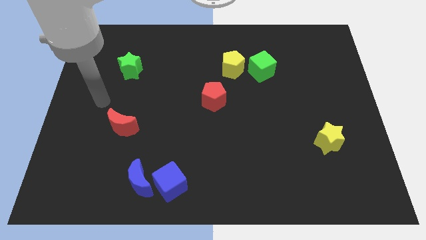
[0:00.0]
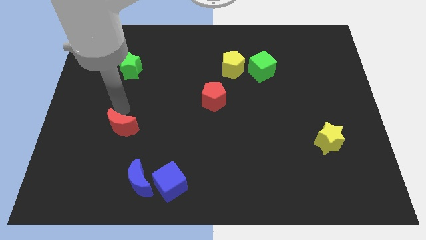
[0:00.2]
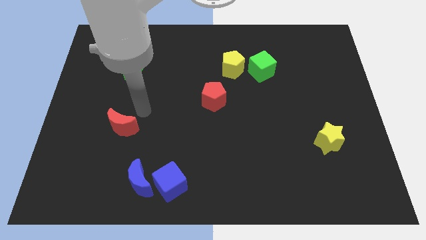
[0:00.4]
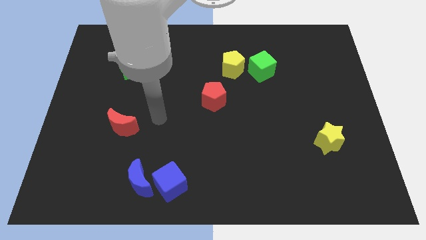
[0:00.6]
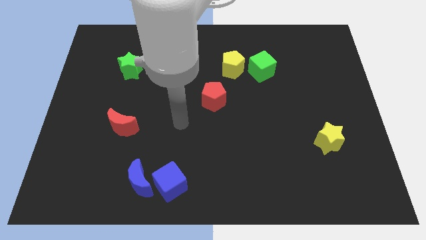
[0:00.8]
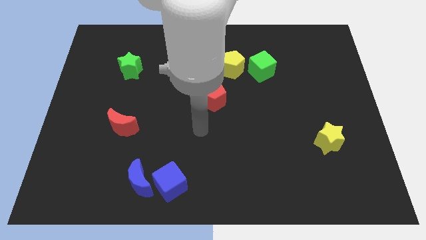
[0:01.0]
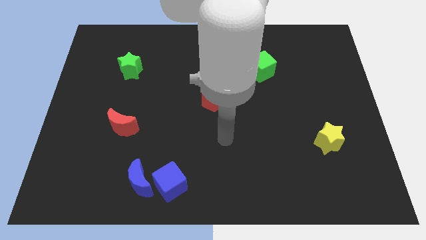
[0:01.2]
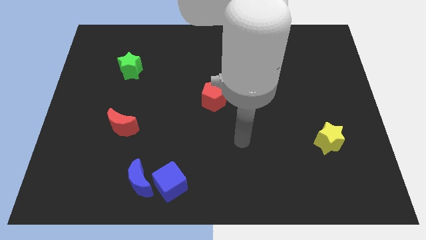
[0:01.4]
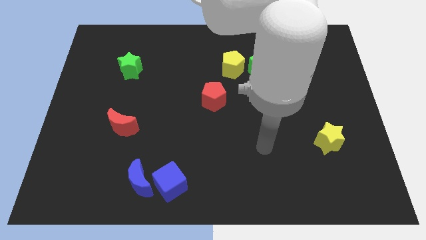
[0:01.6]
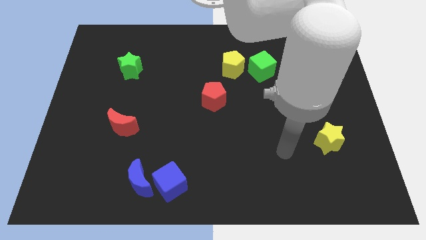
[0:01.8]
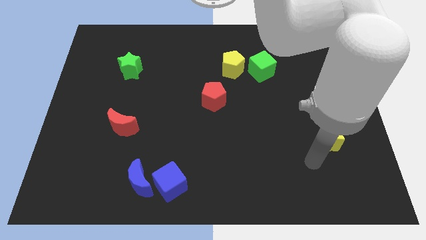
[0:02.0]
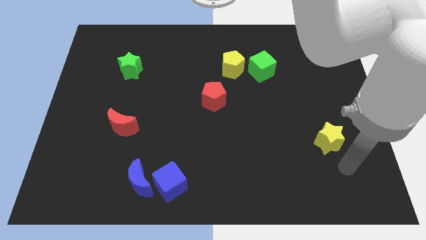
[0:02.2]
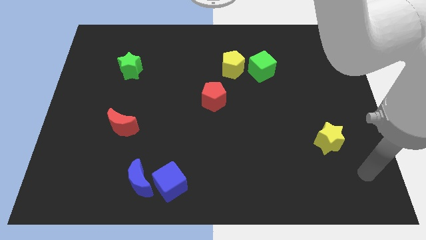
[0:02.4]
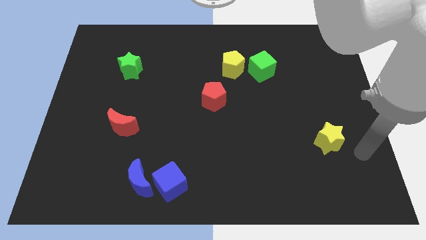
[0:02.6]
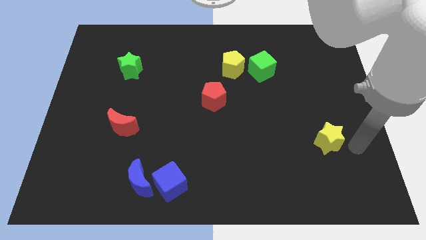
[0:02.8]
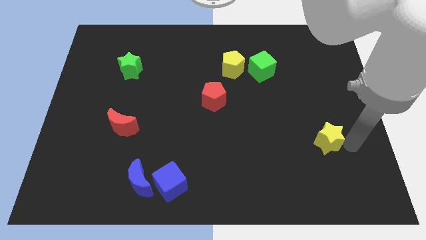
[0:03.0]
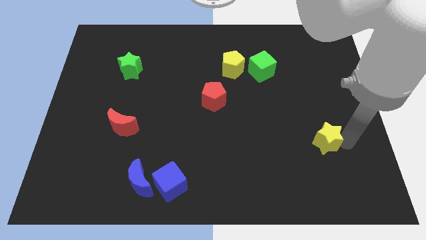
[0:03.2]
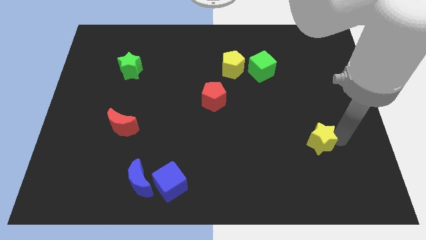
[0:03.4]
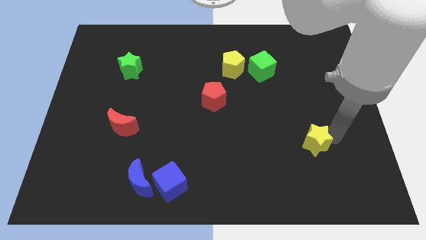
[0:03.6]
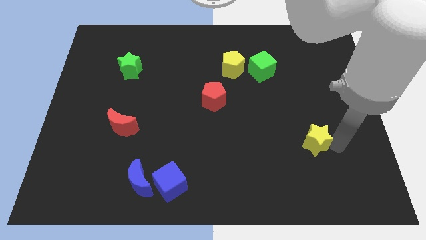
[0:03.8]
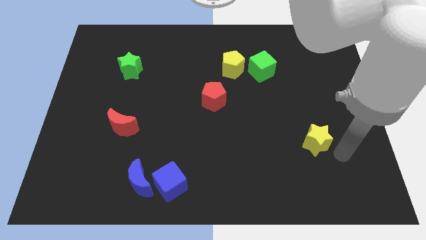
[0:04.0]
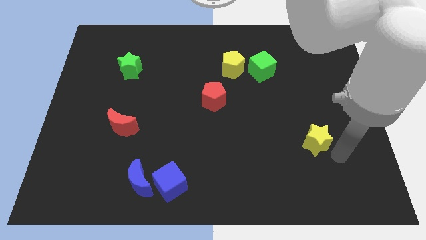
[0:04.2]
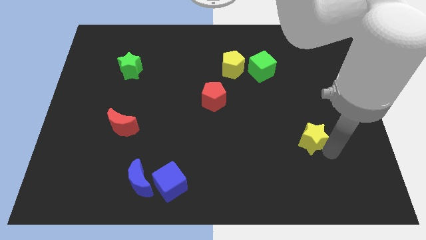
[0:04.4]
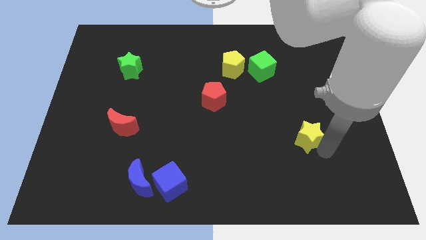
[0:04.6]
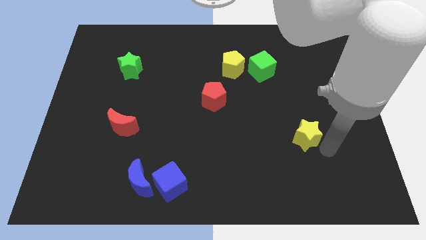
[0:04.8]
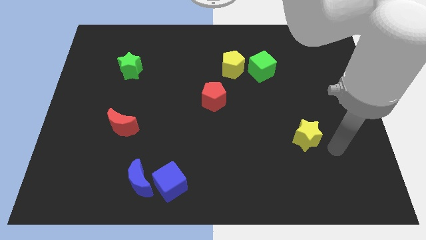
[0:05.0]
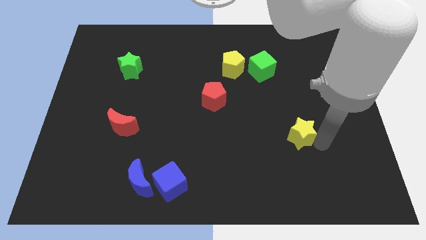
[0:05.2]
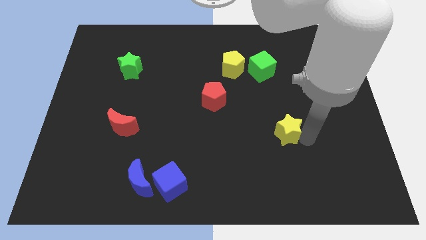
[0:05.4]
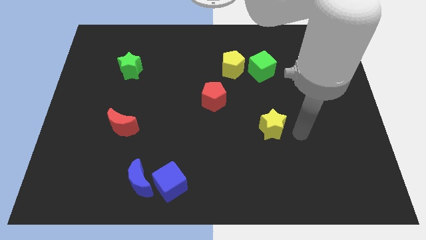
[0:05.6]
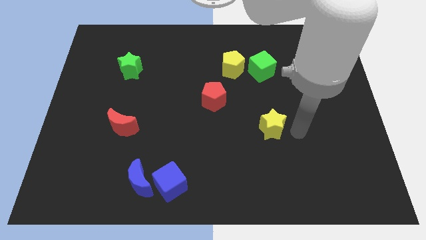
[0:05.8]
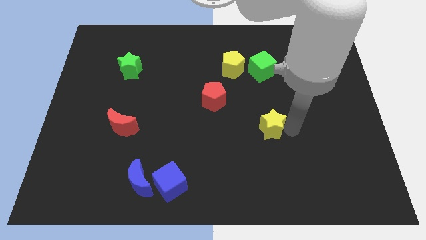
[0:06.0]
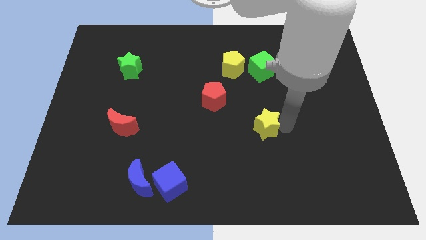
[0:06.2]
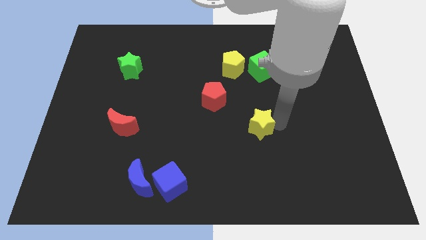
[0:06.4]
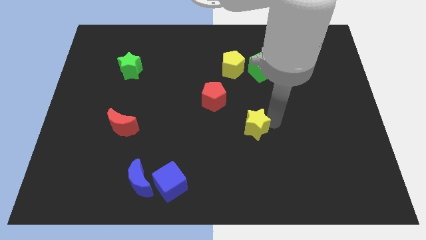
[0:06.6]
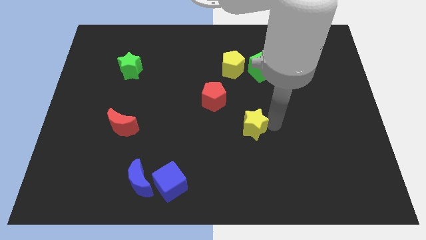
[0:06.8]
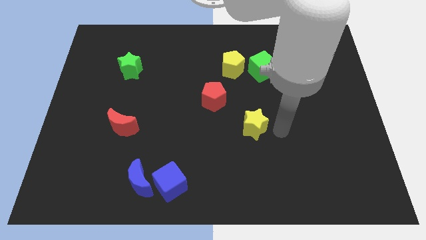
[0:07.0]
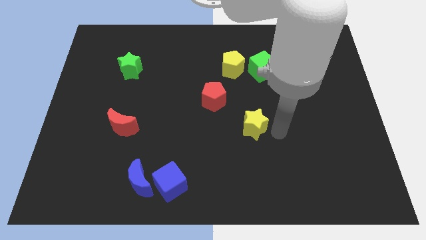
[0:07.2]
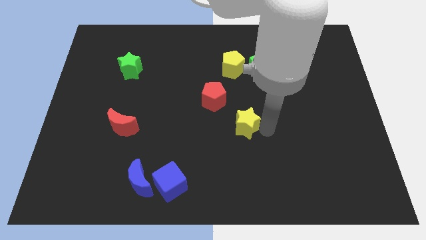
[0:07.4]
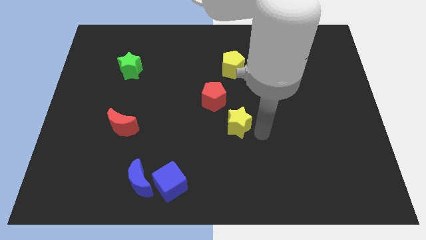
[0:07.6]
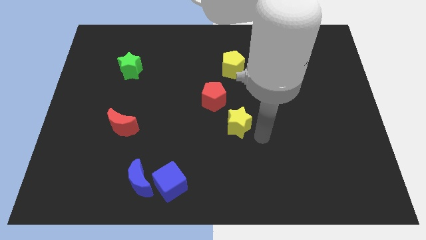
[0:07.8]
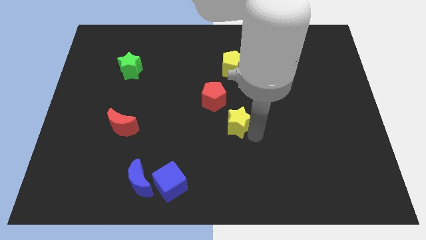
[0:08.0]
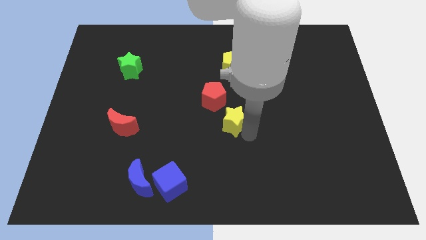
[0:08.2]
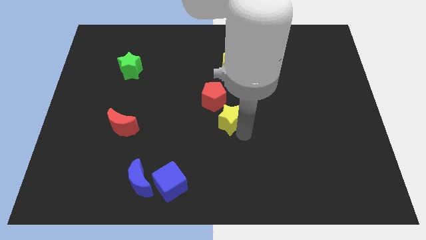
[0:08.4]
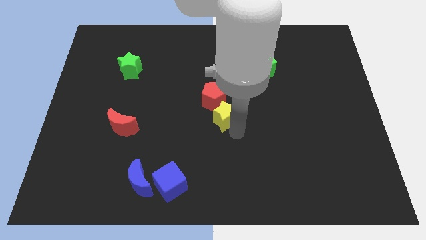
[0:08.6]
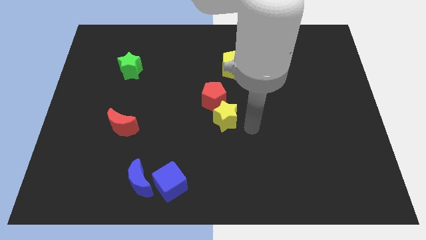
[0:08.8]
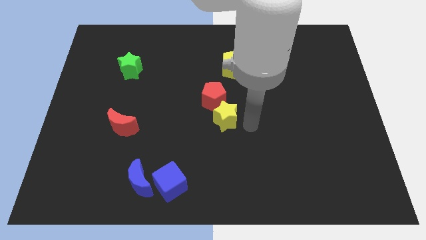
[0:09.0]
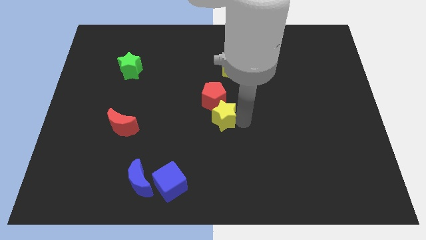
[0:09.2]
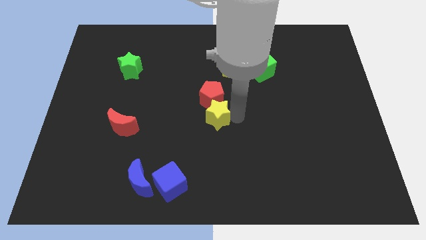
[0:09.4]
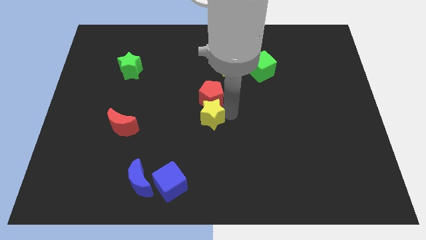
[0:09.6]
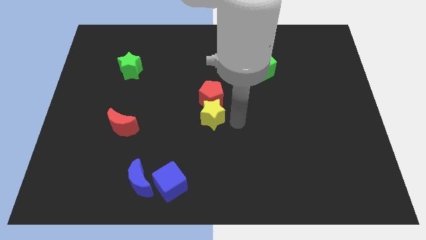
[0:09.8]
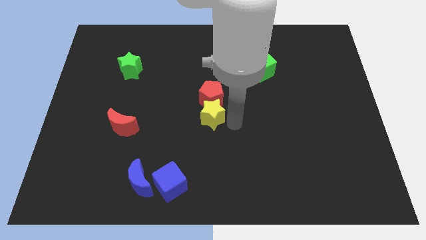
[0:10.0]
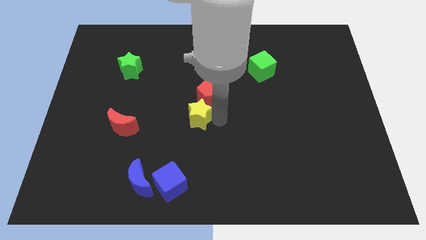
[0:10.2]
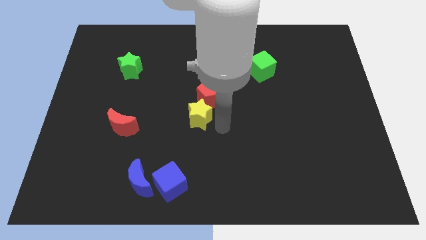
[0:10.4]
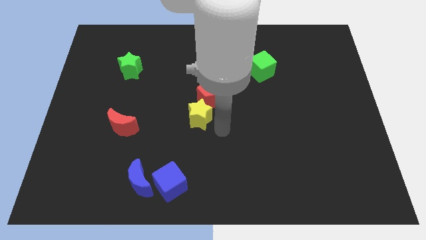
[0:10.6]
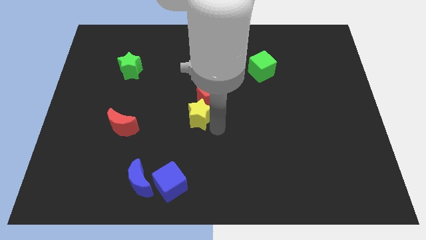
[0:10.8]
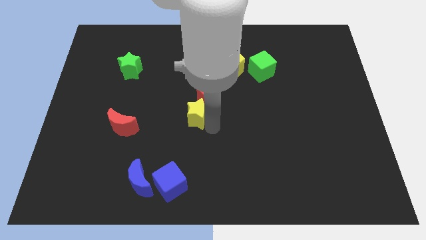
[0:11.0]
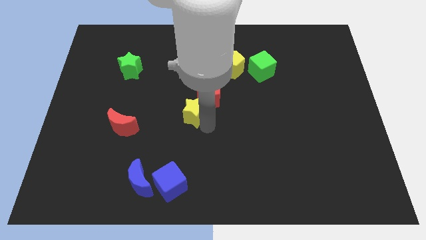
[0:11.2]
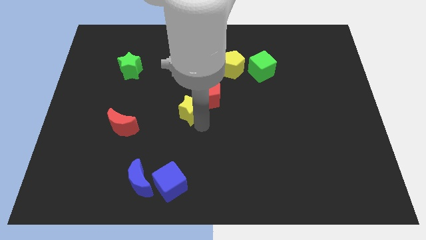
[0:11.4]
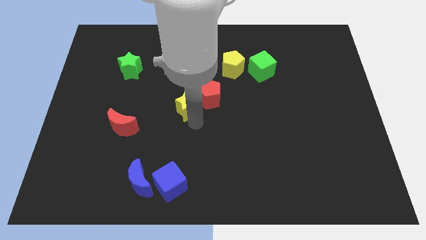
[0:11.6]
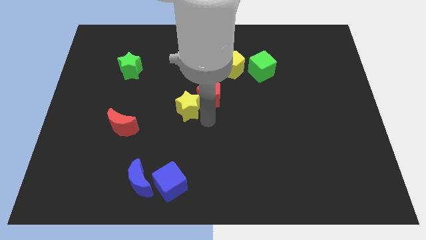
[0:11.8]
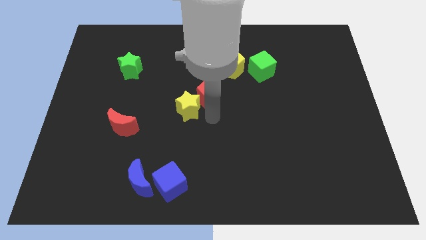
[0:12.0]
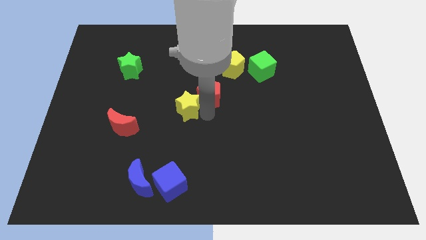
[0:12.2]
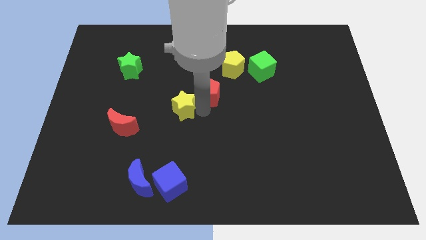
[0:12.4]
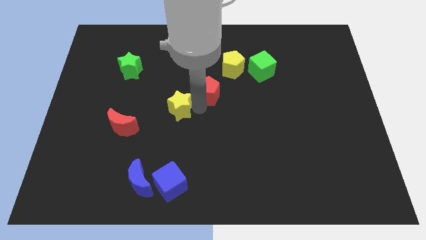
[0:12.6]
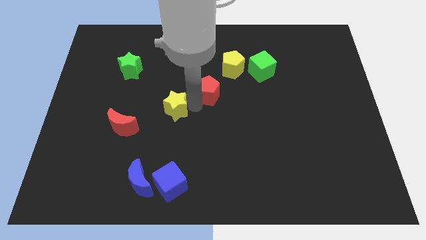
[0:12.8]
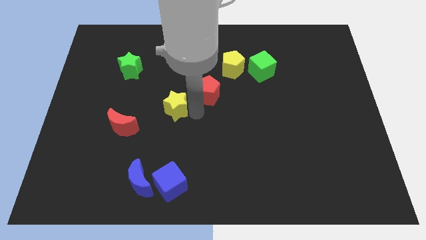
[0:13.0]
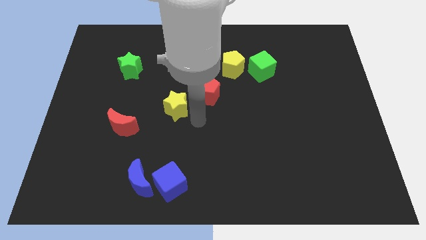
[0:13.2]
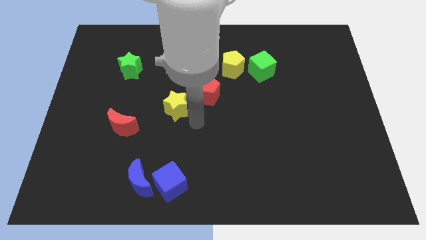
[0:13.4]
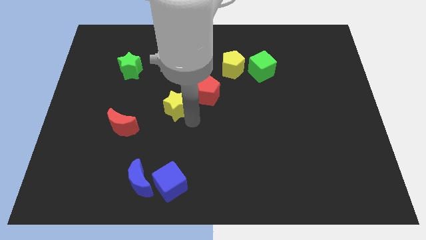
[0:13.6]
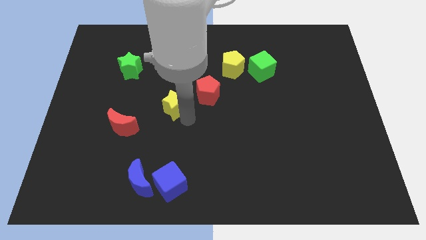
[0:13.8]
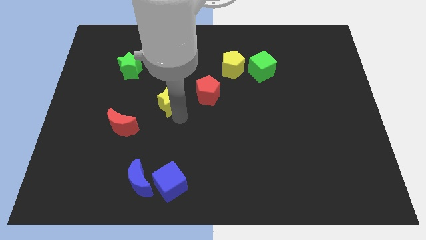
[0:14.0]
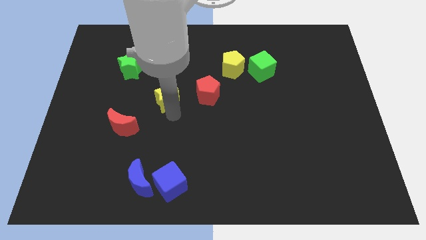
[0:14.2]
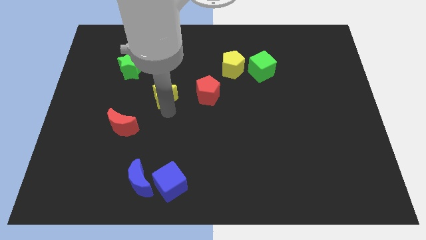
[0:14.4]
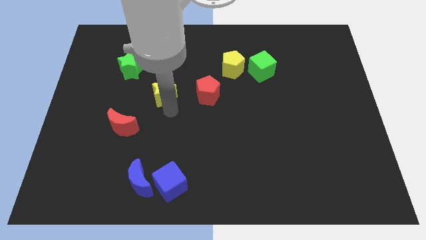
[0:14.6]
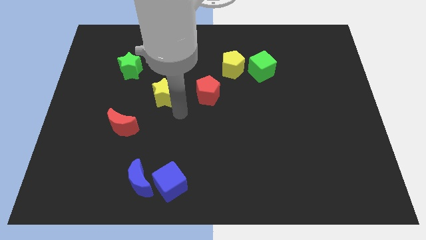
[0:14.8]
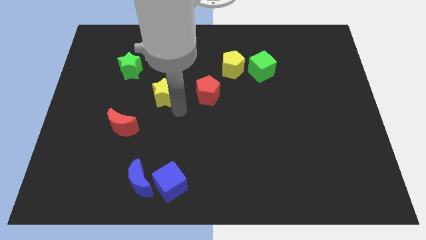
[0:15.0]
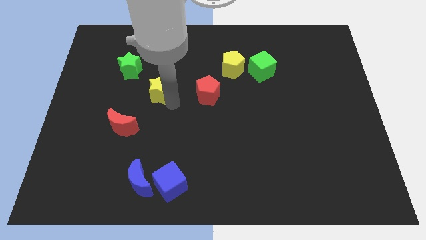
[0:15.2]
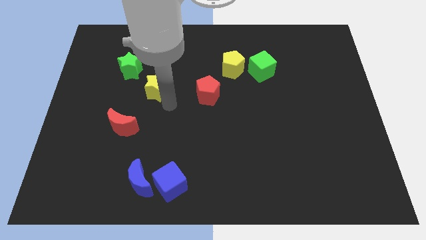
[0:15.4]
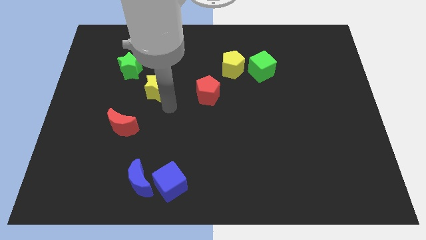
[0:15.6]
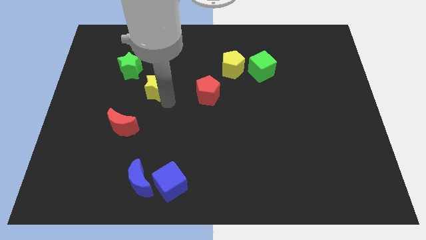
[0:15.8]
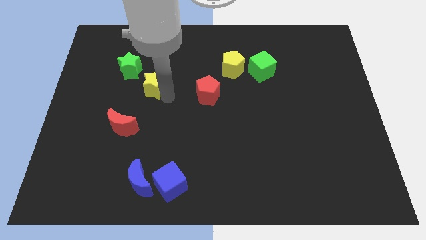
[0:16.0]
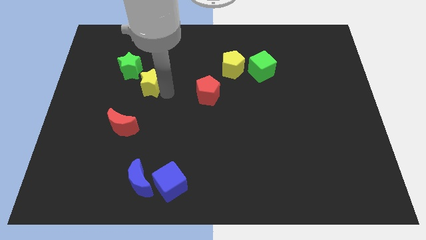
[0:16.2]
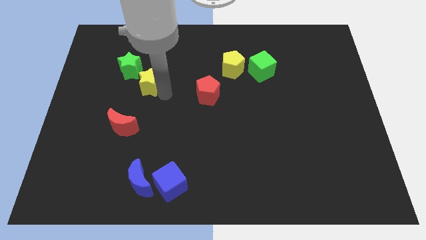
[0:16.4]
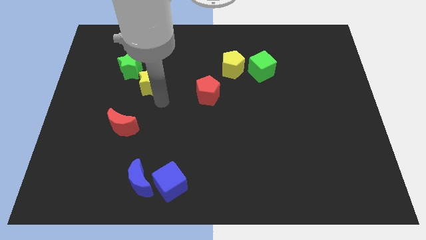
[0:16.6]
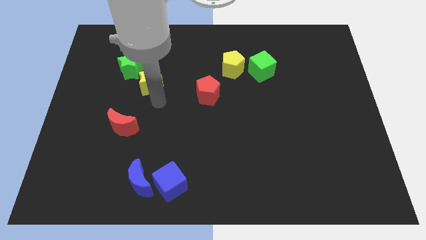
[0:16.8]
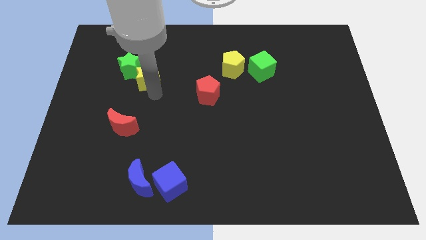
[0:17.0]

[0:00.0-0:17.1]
put the yellow star close to the green star
